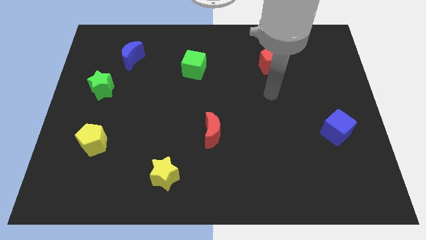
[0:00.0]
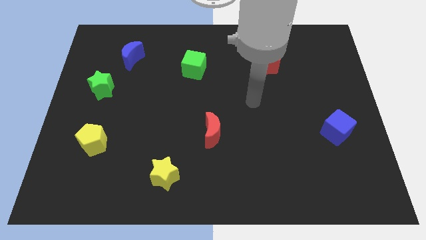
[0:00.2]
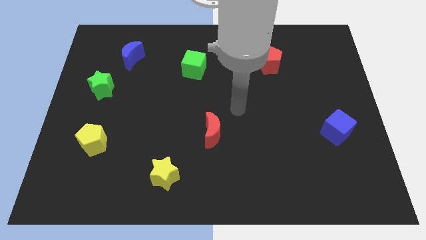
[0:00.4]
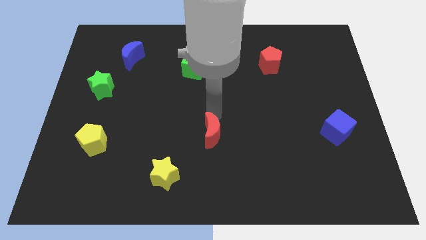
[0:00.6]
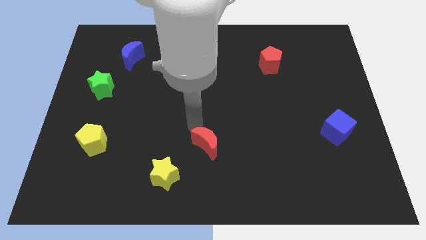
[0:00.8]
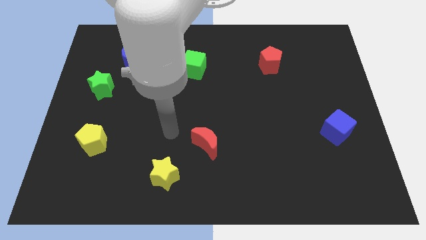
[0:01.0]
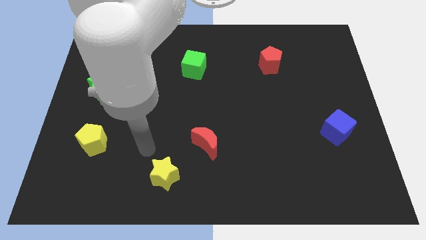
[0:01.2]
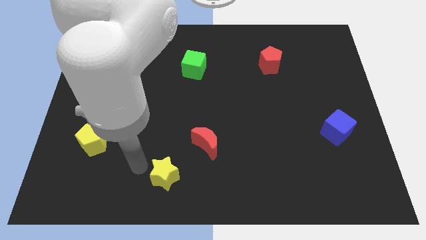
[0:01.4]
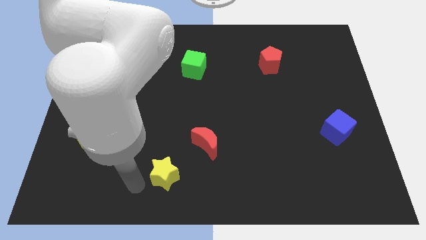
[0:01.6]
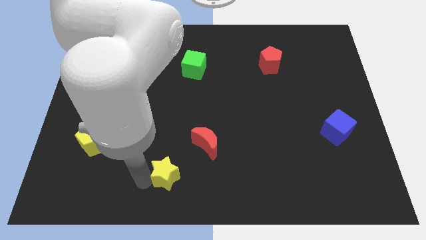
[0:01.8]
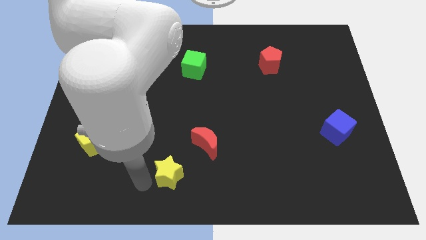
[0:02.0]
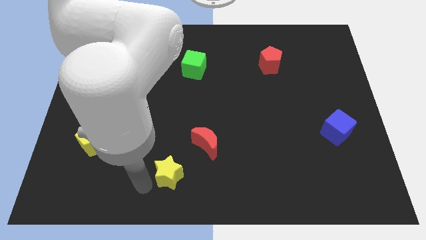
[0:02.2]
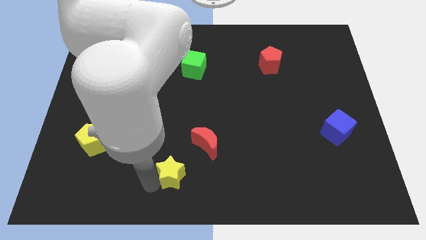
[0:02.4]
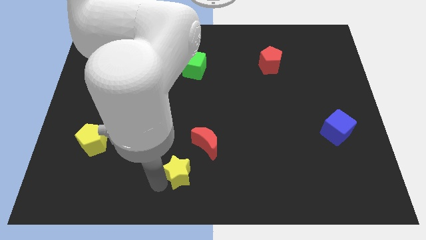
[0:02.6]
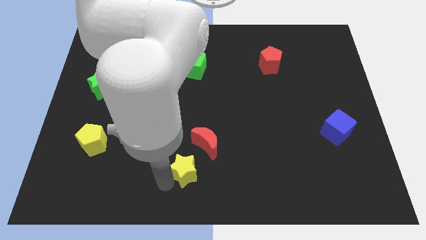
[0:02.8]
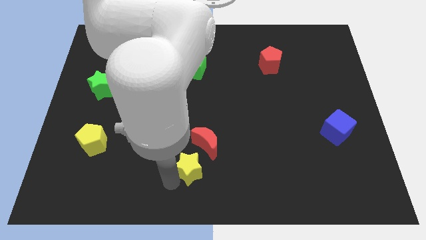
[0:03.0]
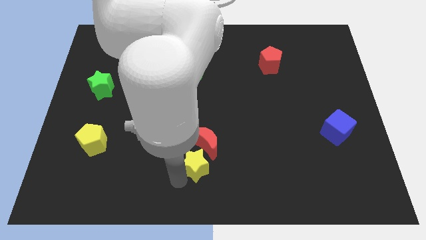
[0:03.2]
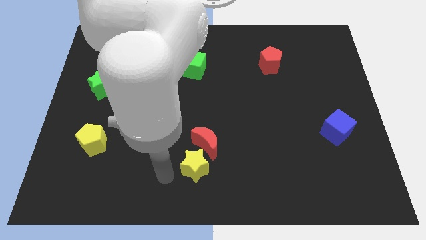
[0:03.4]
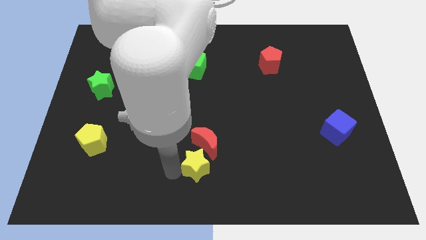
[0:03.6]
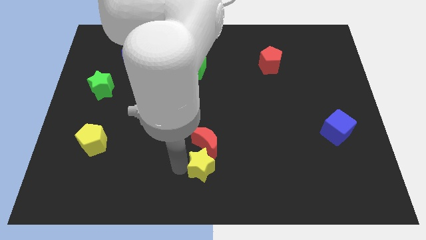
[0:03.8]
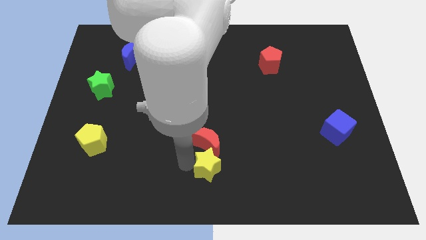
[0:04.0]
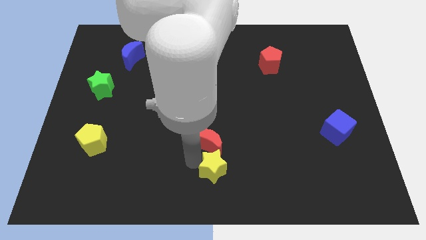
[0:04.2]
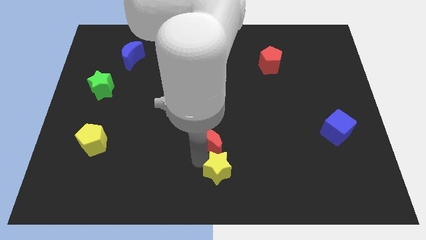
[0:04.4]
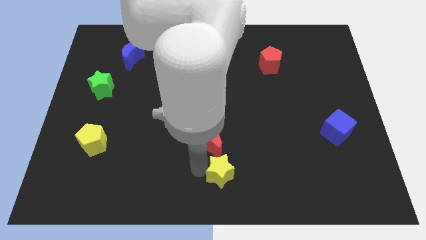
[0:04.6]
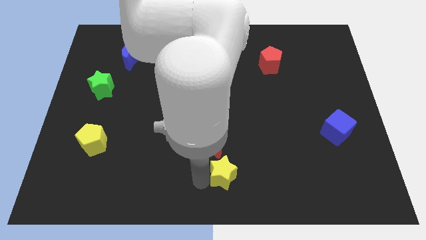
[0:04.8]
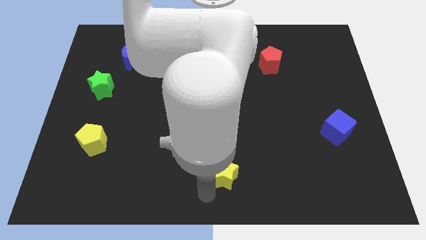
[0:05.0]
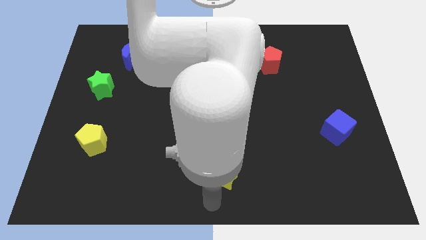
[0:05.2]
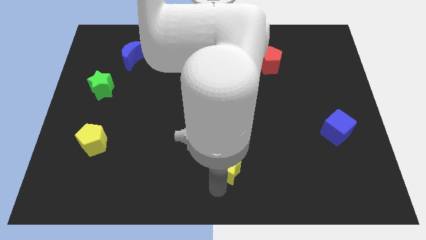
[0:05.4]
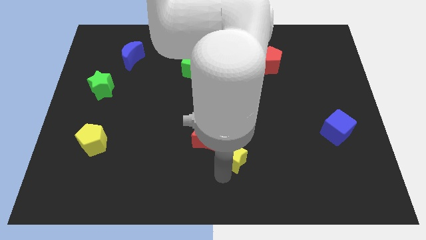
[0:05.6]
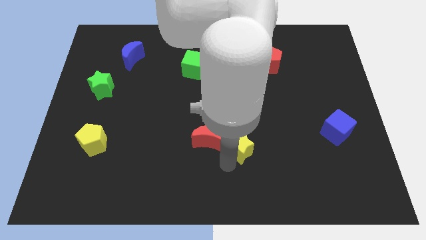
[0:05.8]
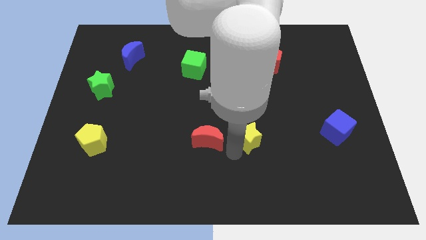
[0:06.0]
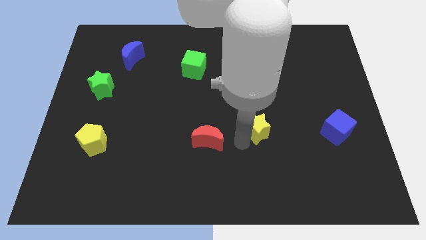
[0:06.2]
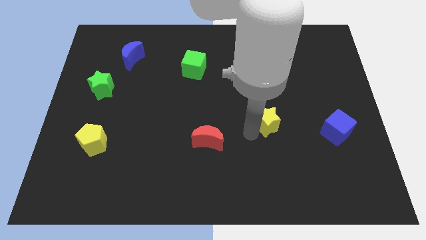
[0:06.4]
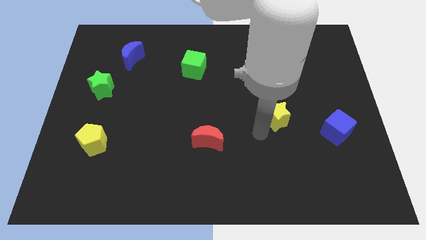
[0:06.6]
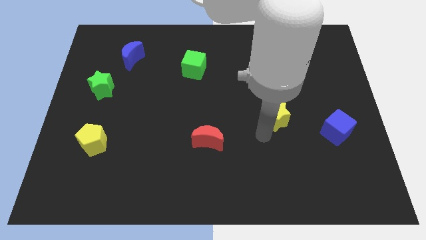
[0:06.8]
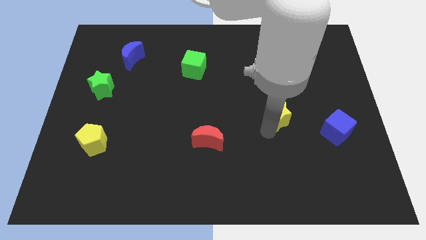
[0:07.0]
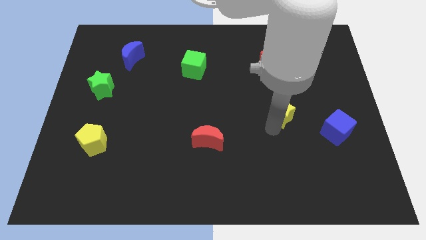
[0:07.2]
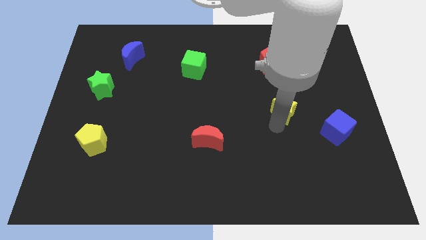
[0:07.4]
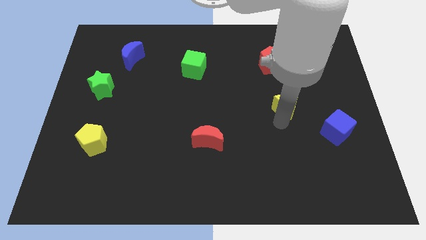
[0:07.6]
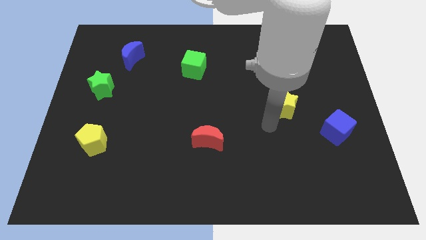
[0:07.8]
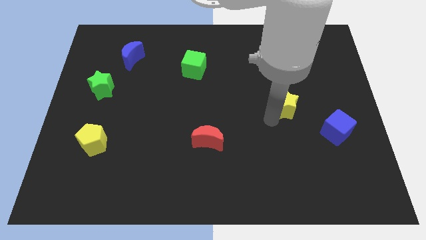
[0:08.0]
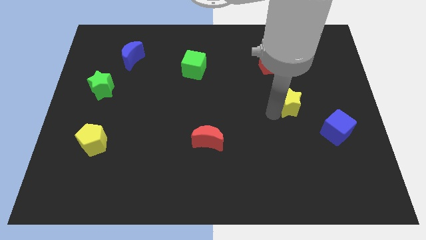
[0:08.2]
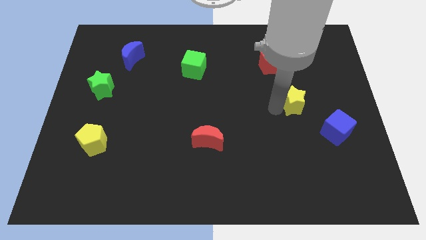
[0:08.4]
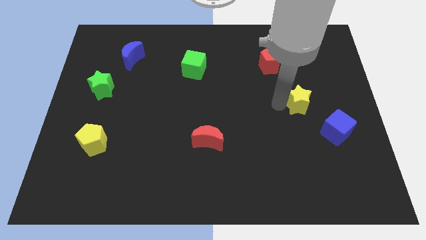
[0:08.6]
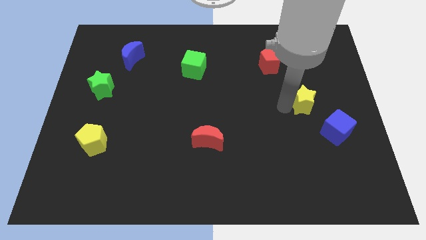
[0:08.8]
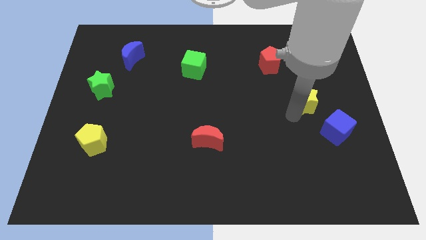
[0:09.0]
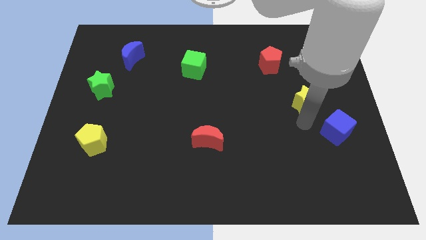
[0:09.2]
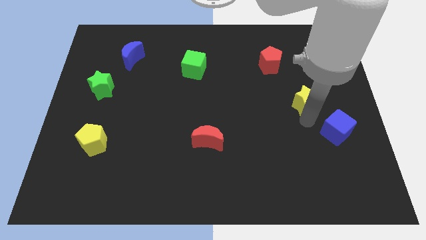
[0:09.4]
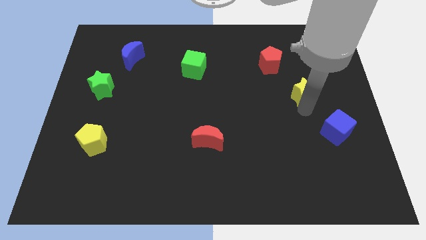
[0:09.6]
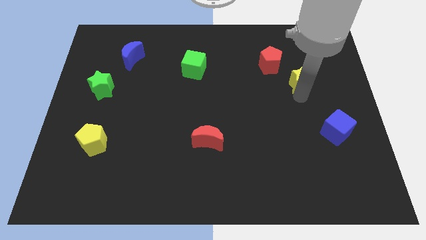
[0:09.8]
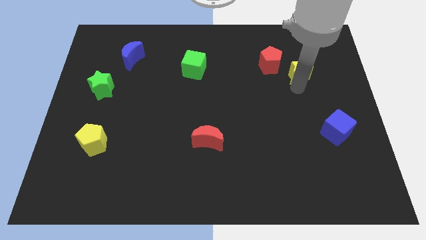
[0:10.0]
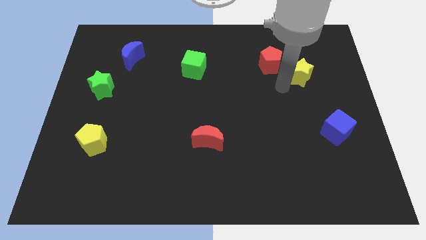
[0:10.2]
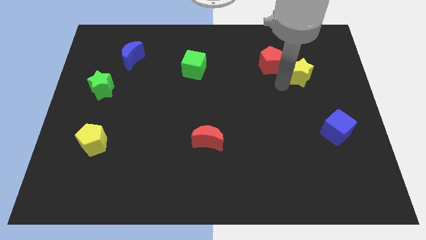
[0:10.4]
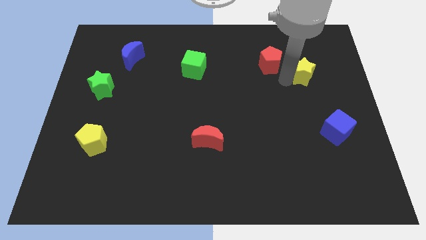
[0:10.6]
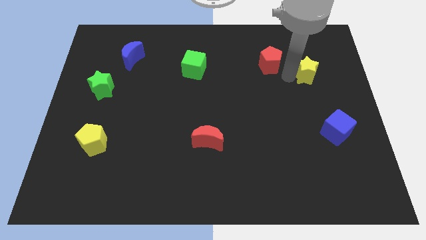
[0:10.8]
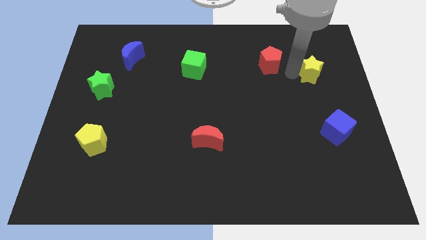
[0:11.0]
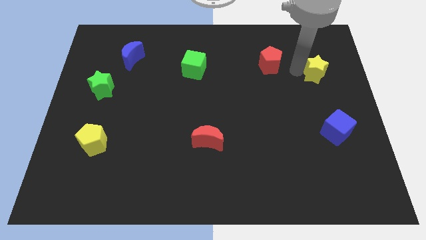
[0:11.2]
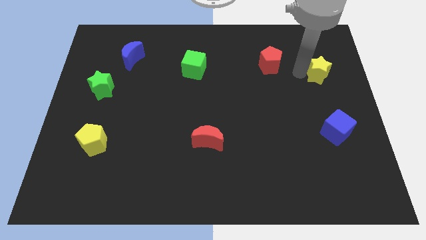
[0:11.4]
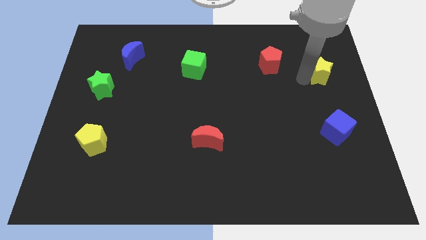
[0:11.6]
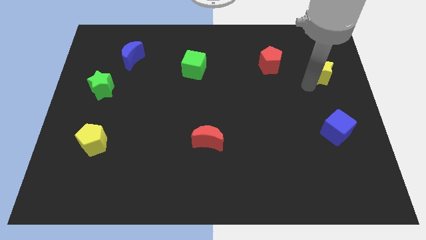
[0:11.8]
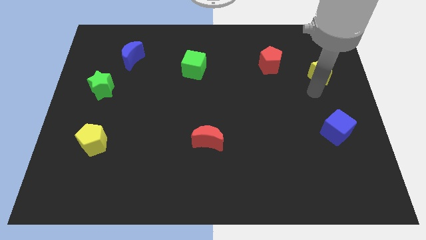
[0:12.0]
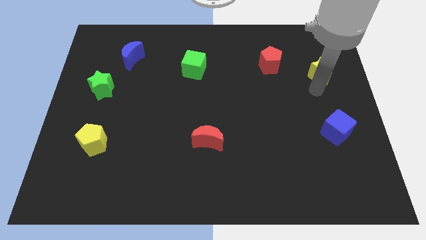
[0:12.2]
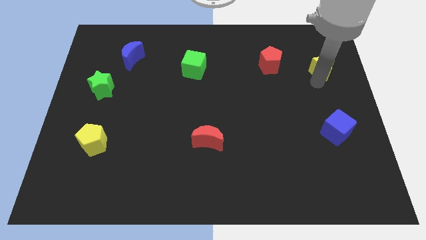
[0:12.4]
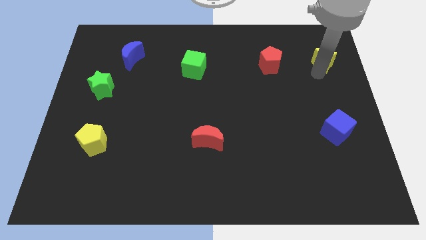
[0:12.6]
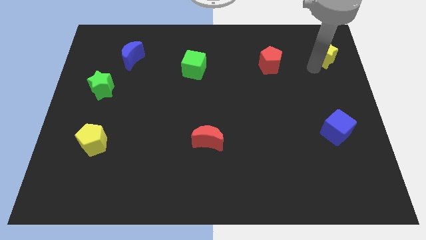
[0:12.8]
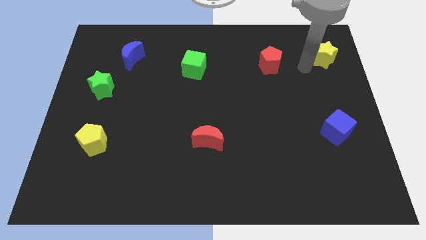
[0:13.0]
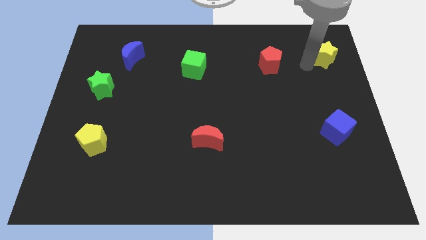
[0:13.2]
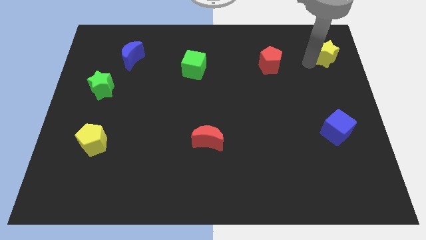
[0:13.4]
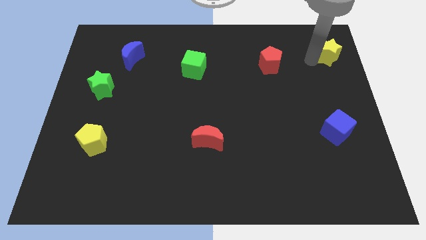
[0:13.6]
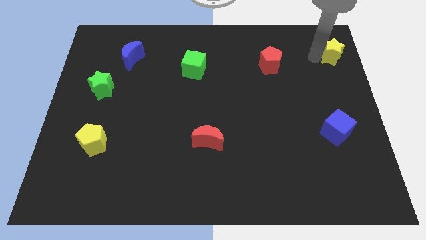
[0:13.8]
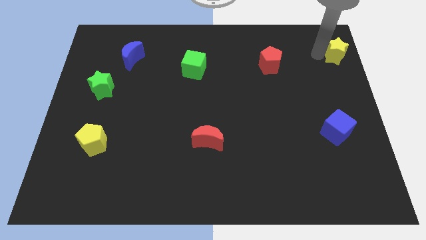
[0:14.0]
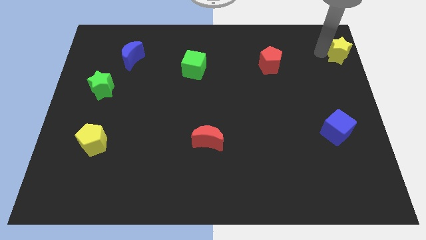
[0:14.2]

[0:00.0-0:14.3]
slide the yellow star to the top right corner
